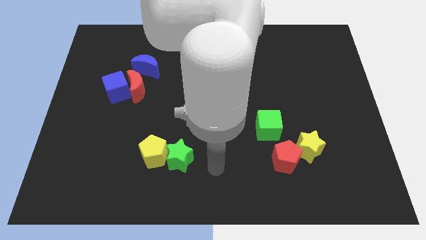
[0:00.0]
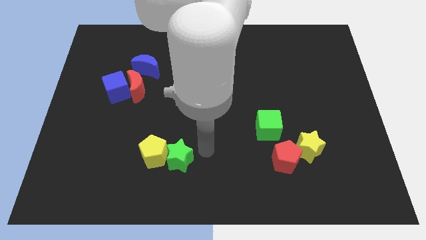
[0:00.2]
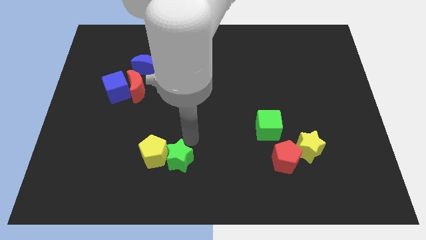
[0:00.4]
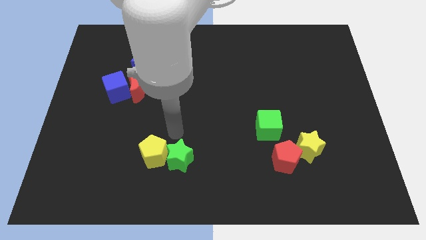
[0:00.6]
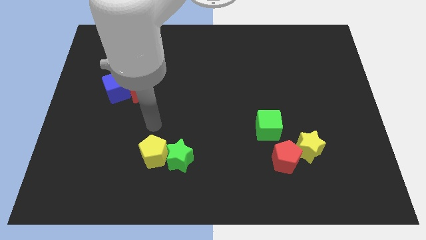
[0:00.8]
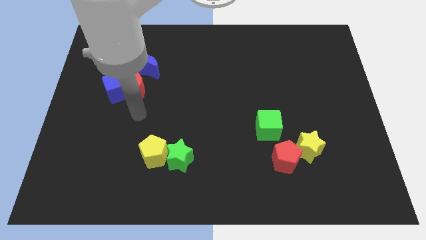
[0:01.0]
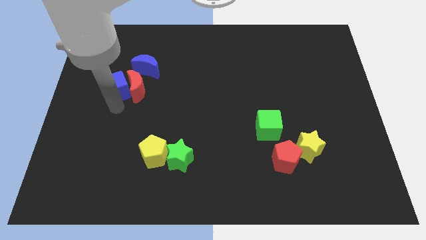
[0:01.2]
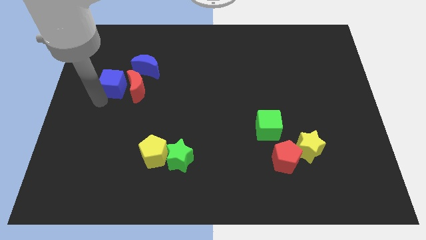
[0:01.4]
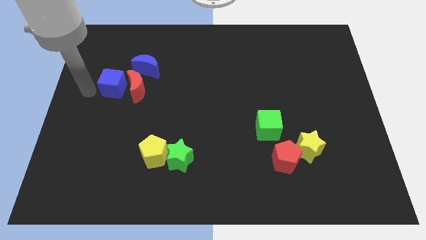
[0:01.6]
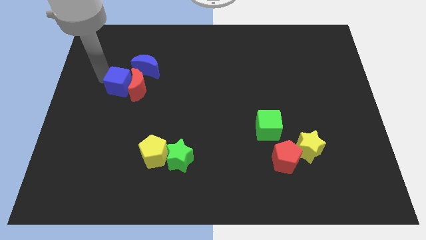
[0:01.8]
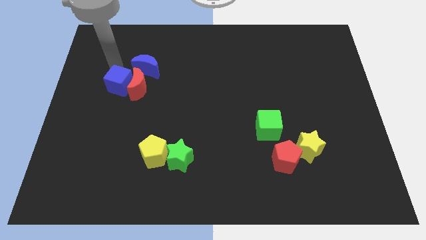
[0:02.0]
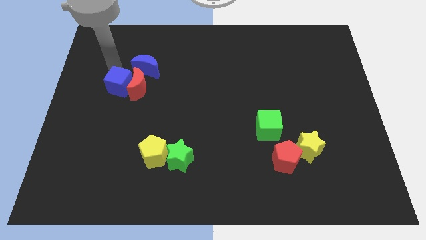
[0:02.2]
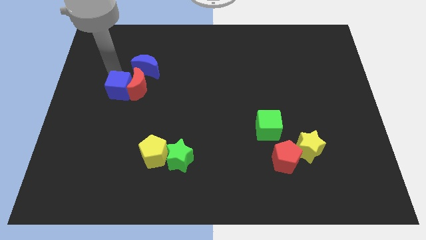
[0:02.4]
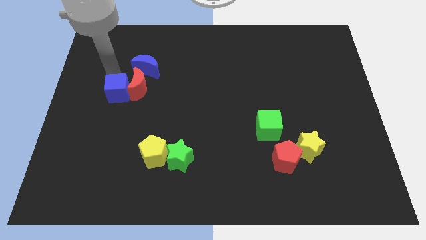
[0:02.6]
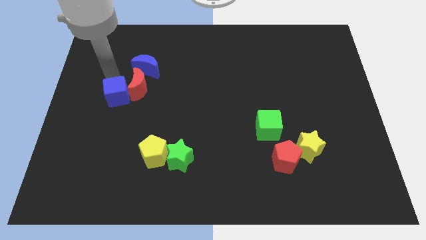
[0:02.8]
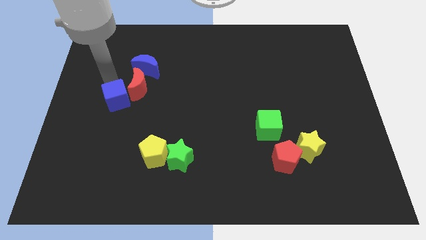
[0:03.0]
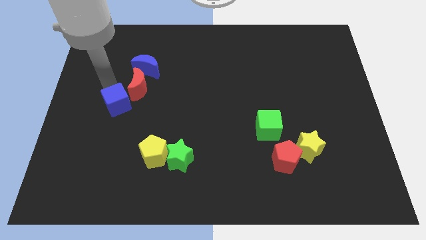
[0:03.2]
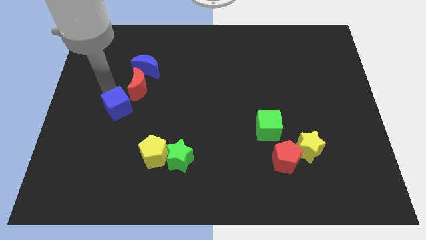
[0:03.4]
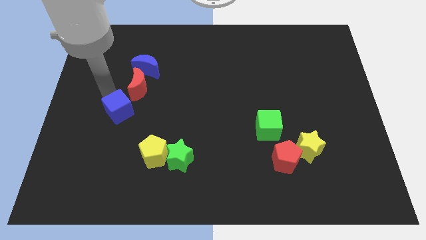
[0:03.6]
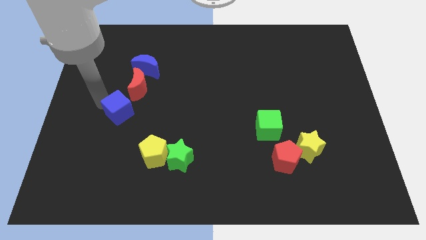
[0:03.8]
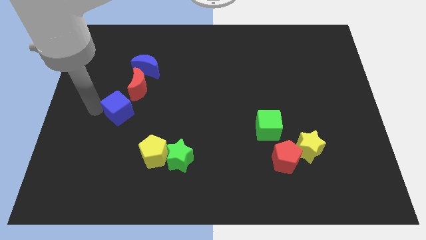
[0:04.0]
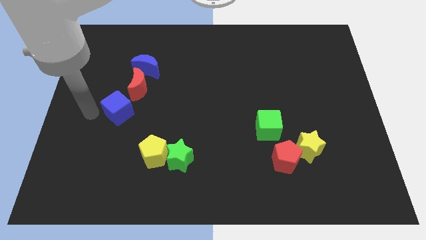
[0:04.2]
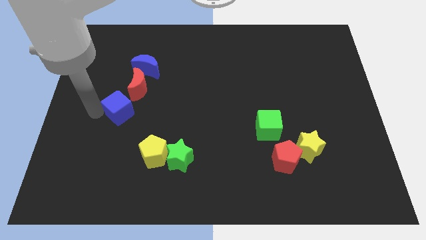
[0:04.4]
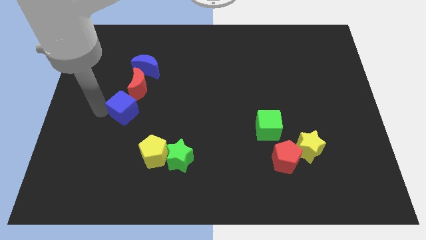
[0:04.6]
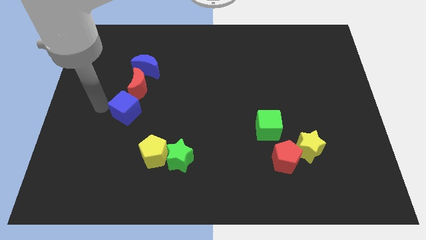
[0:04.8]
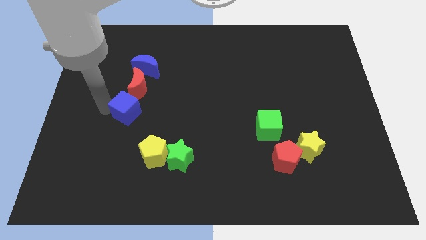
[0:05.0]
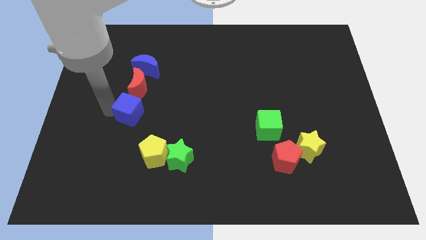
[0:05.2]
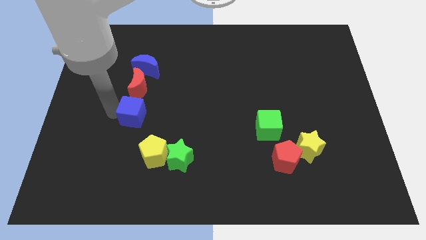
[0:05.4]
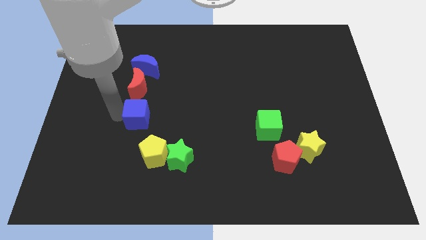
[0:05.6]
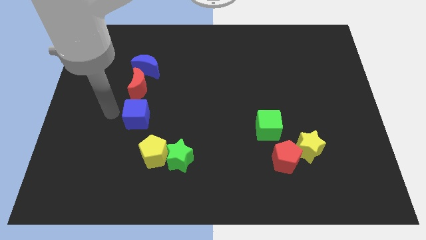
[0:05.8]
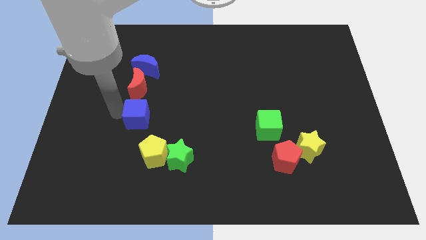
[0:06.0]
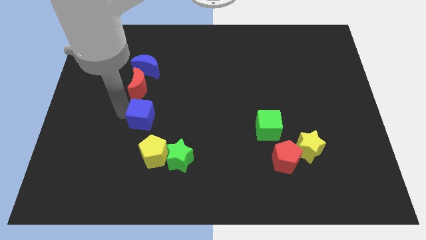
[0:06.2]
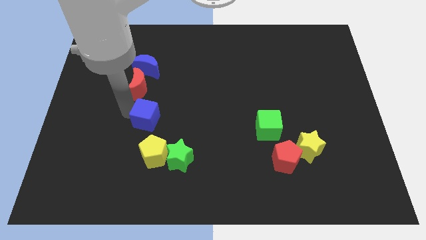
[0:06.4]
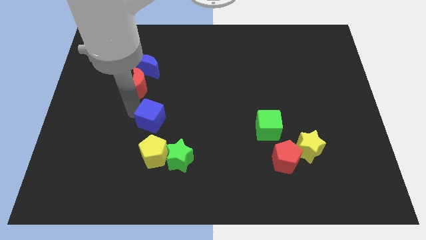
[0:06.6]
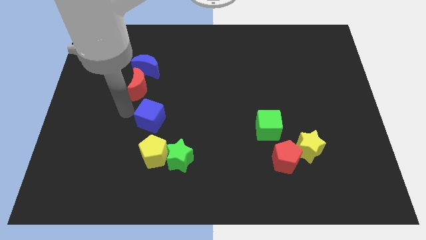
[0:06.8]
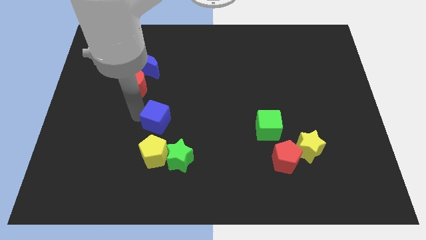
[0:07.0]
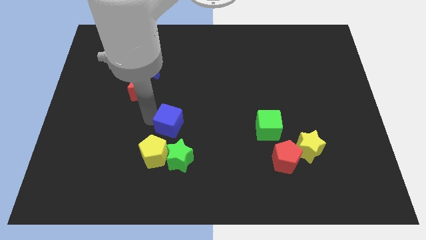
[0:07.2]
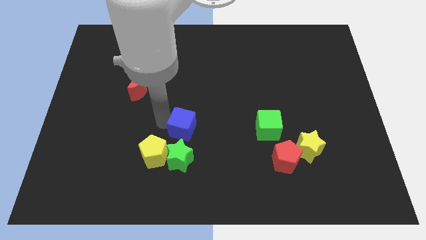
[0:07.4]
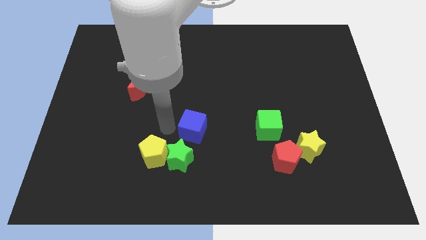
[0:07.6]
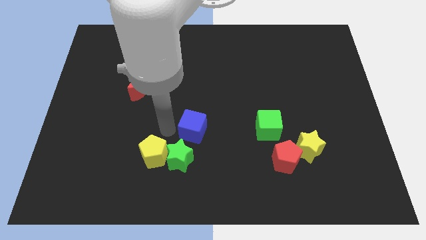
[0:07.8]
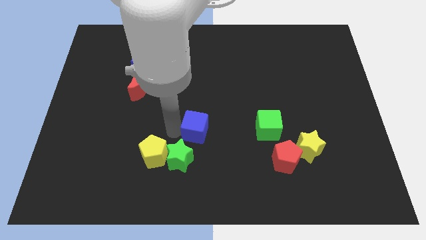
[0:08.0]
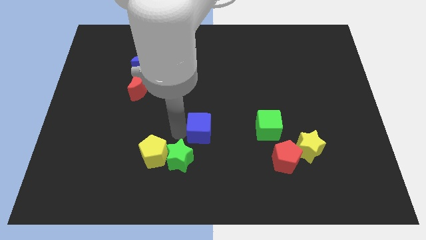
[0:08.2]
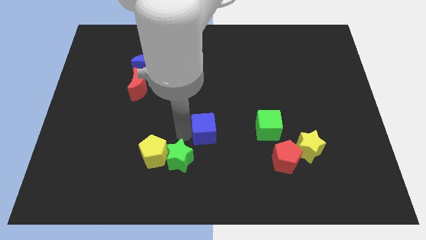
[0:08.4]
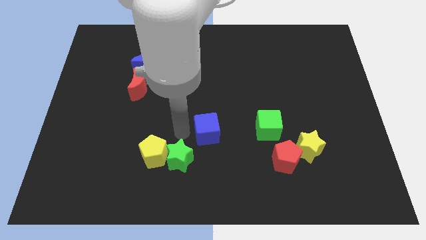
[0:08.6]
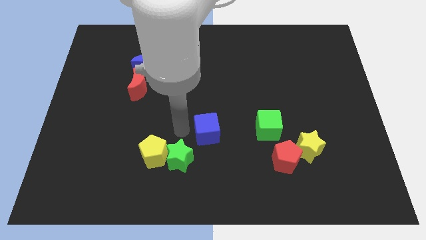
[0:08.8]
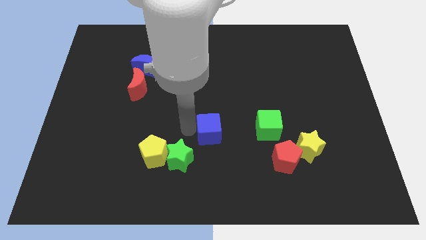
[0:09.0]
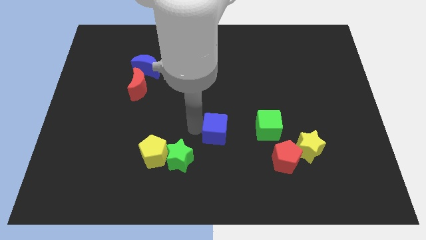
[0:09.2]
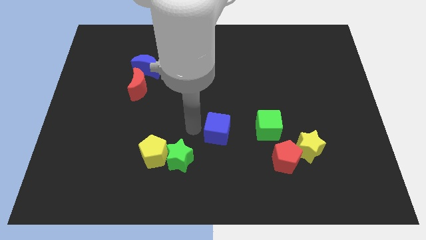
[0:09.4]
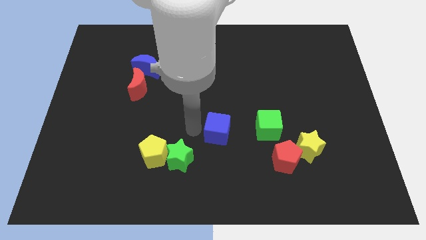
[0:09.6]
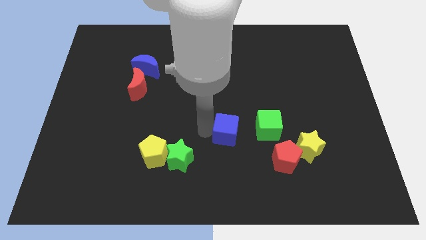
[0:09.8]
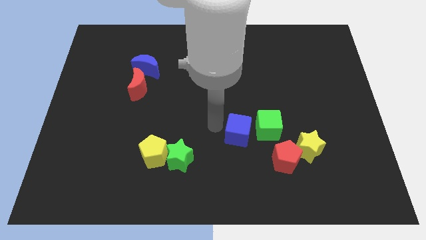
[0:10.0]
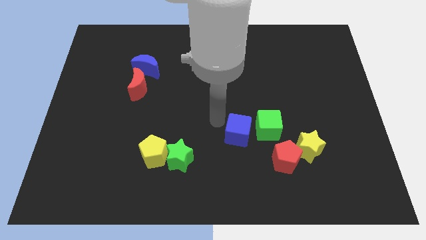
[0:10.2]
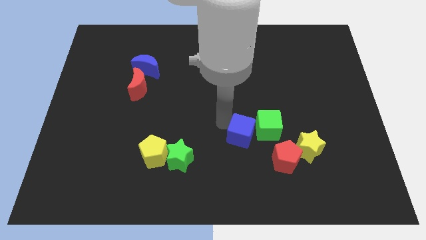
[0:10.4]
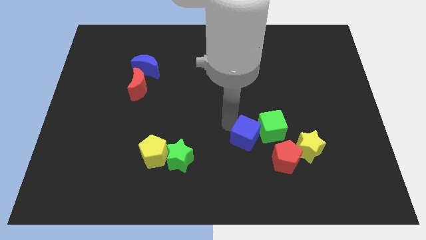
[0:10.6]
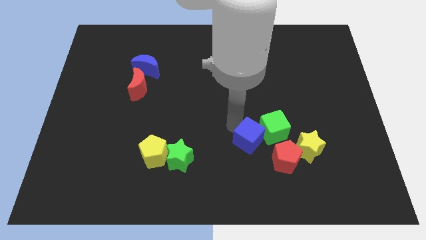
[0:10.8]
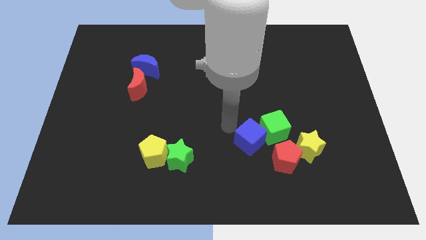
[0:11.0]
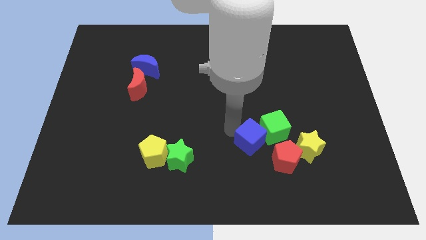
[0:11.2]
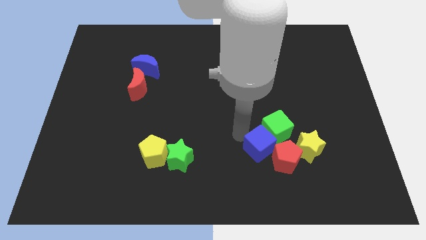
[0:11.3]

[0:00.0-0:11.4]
move the blue cube next to the red pentagon

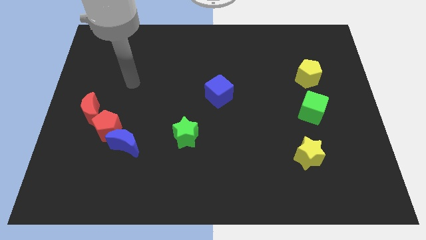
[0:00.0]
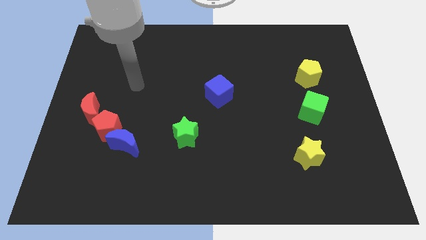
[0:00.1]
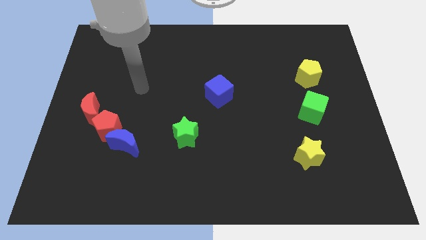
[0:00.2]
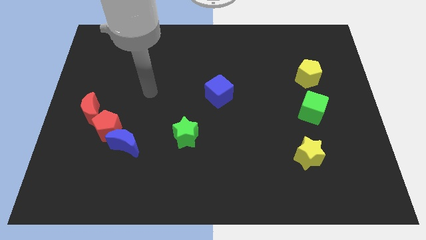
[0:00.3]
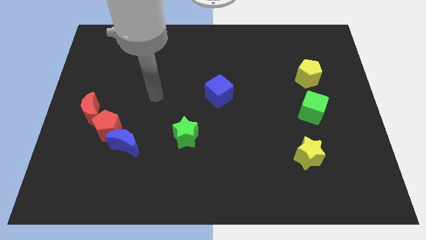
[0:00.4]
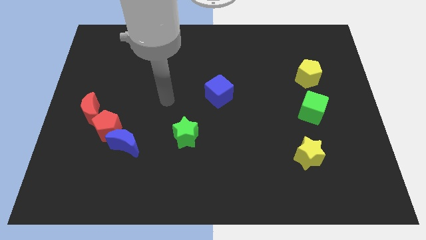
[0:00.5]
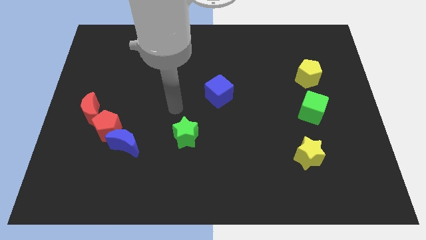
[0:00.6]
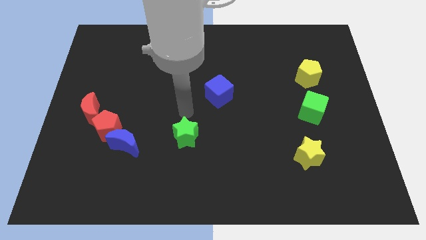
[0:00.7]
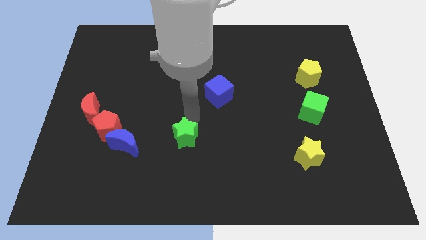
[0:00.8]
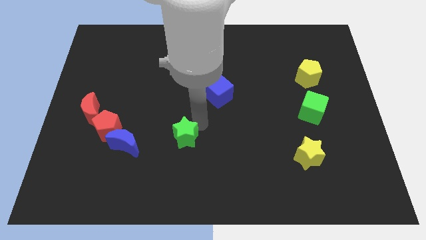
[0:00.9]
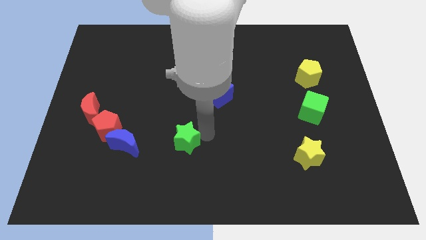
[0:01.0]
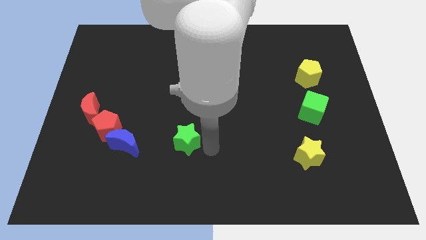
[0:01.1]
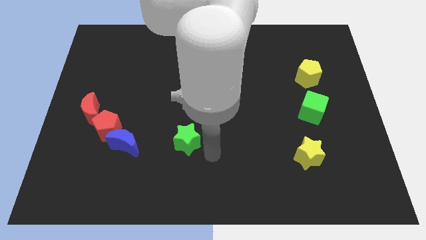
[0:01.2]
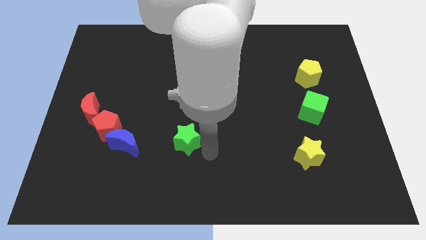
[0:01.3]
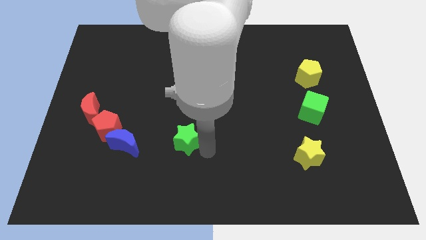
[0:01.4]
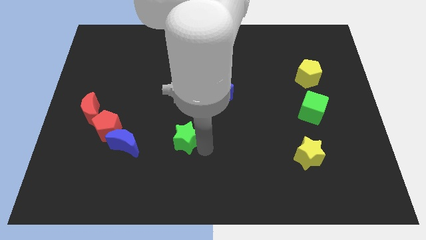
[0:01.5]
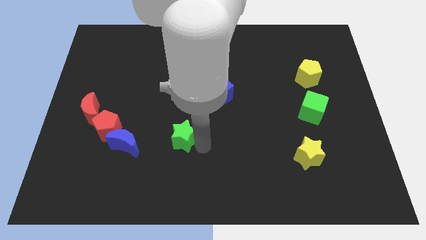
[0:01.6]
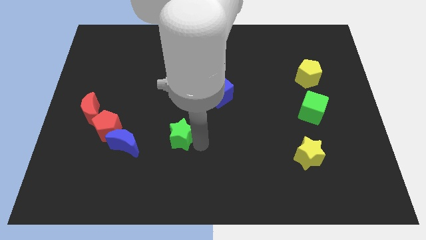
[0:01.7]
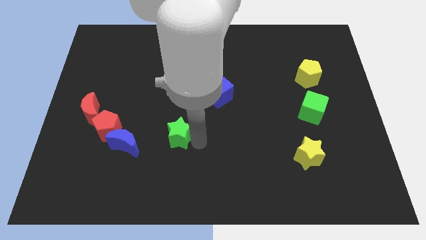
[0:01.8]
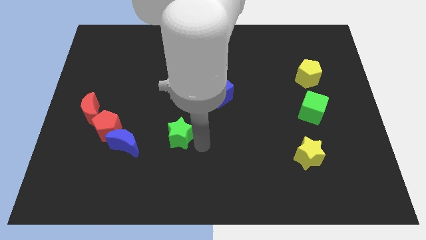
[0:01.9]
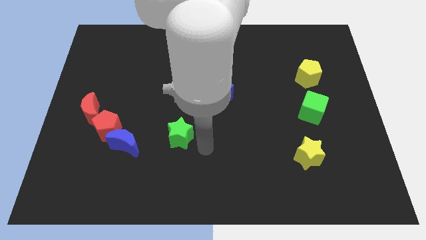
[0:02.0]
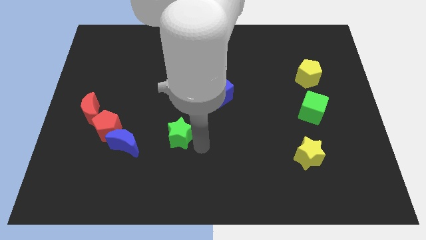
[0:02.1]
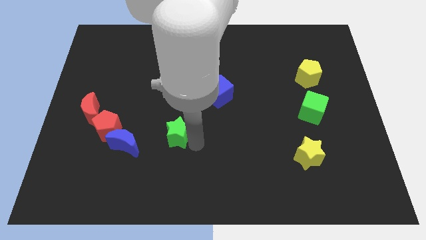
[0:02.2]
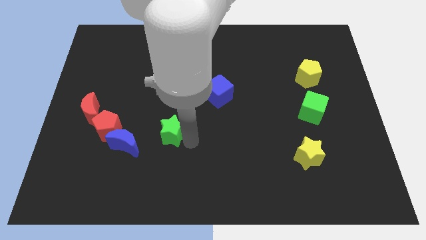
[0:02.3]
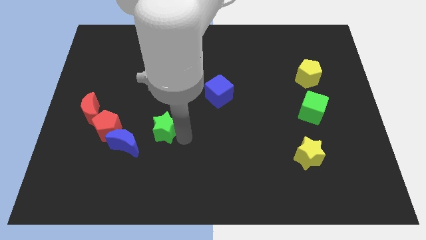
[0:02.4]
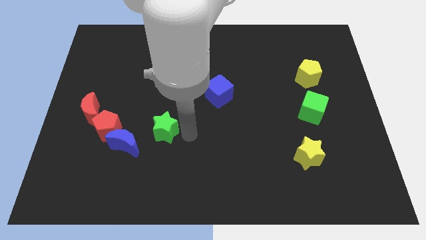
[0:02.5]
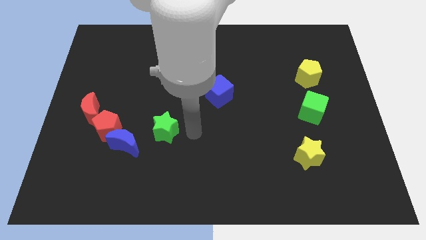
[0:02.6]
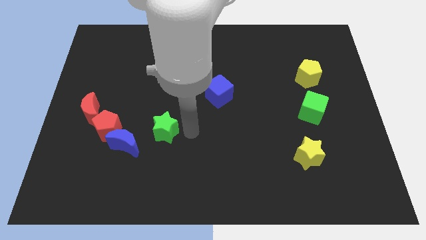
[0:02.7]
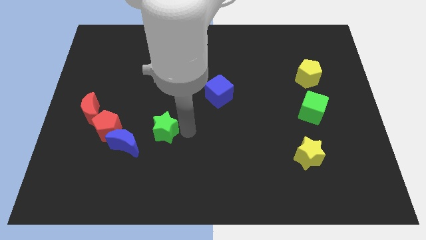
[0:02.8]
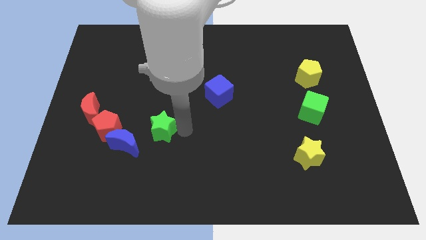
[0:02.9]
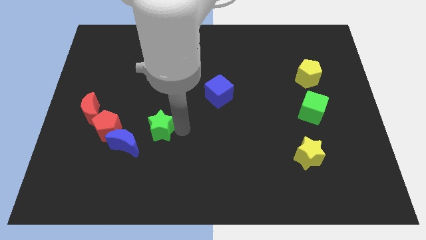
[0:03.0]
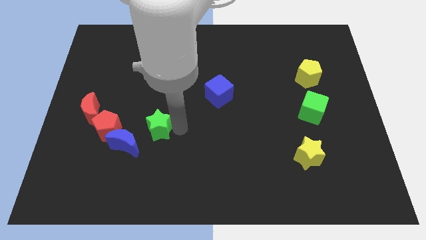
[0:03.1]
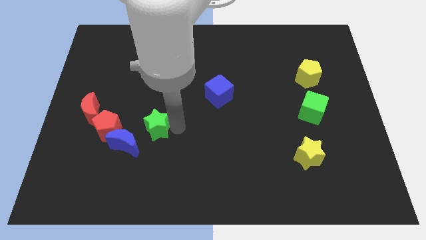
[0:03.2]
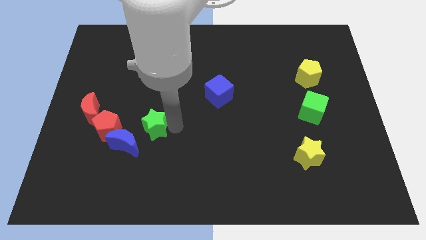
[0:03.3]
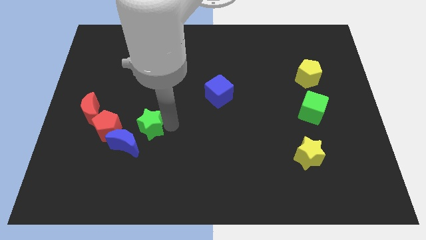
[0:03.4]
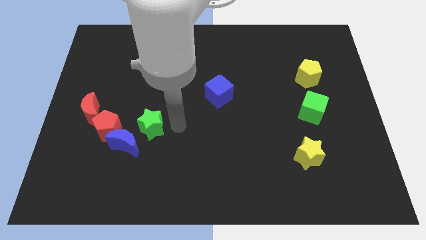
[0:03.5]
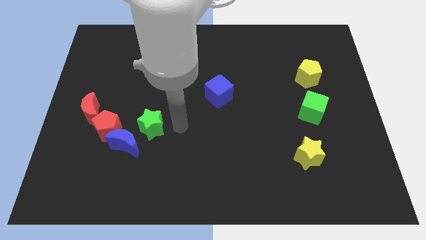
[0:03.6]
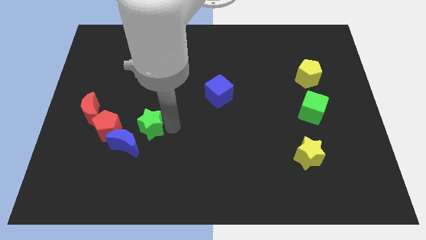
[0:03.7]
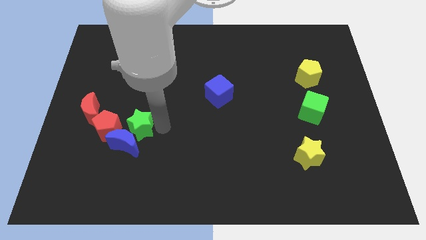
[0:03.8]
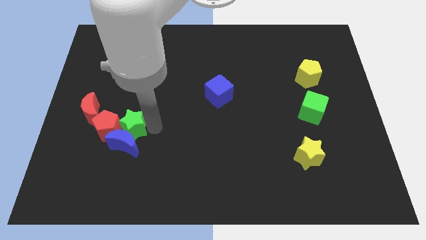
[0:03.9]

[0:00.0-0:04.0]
put the green star next to the red pentagon
